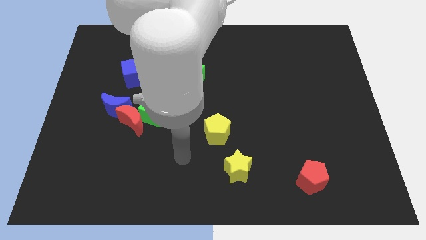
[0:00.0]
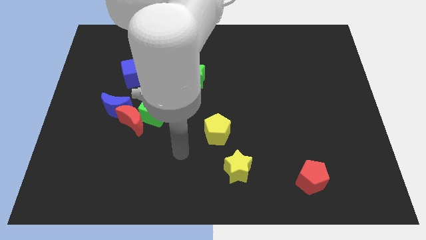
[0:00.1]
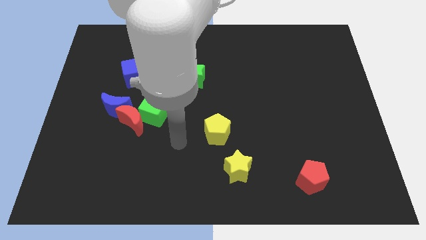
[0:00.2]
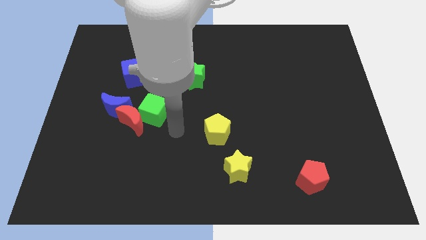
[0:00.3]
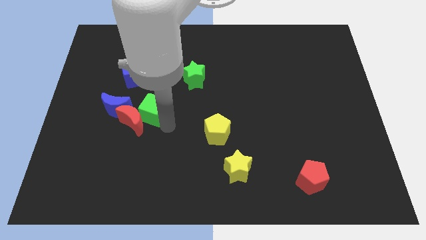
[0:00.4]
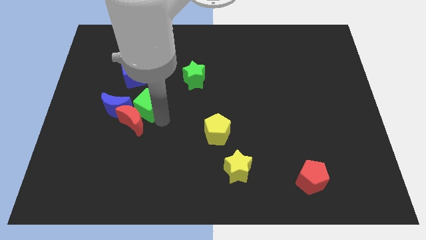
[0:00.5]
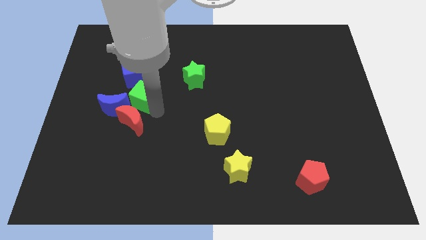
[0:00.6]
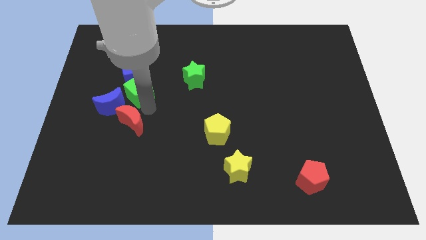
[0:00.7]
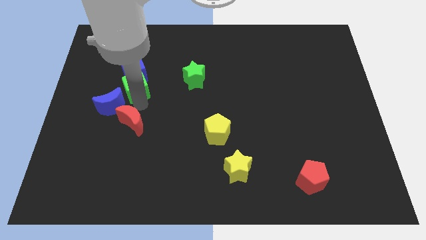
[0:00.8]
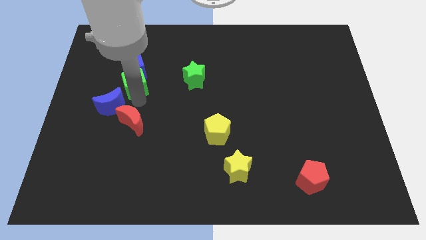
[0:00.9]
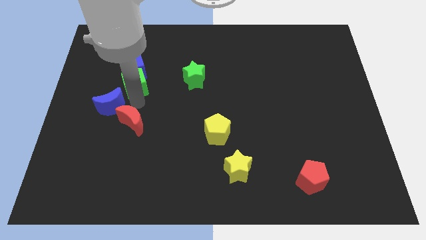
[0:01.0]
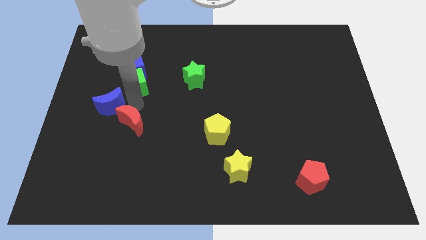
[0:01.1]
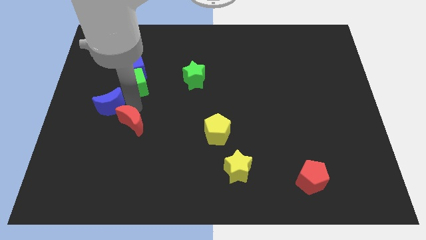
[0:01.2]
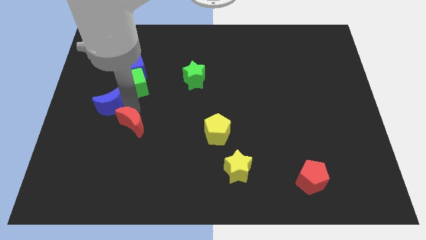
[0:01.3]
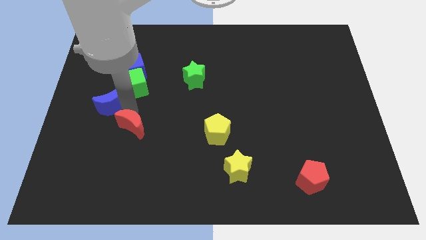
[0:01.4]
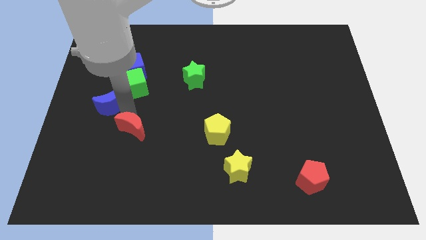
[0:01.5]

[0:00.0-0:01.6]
pull the red moon apart from the green cube and blue moon

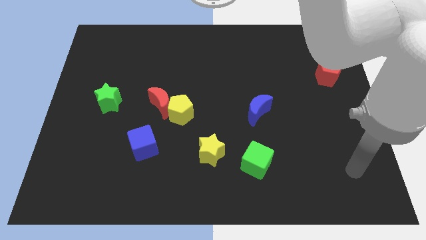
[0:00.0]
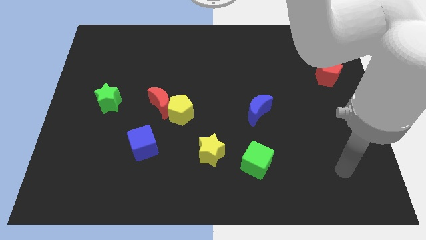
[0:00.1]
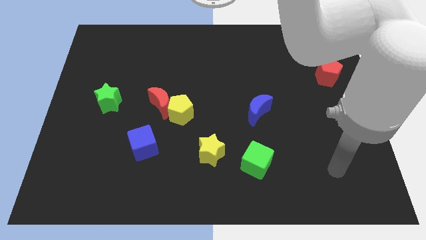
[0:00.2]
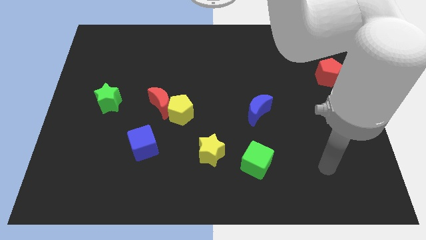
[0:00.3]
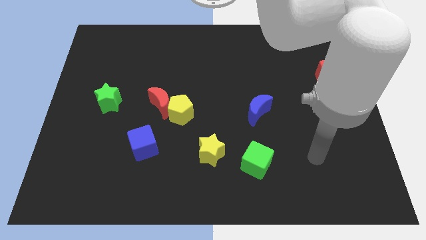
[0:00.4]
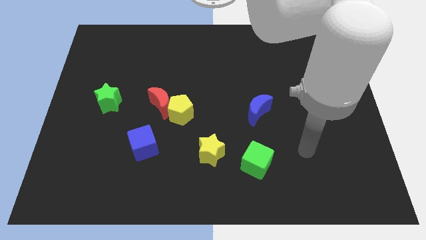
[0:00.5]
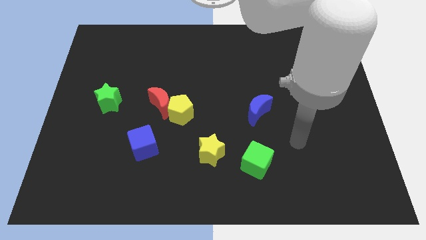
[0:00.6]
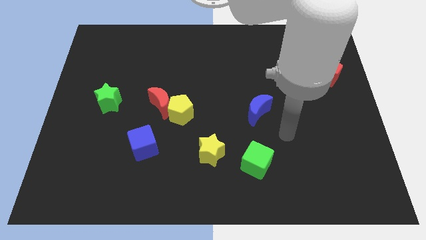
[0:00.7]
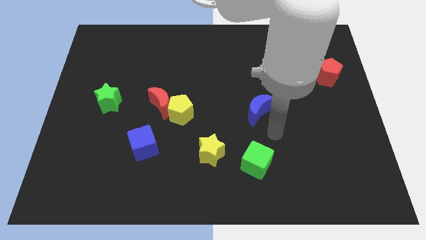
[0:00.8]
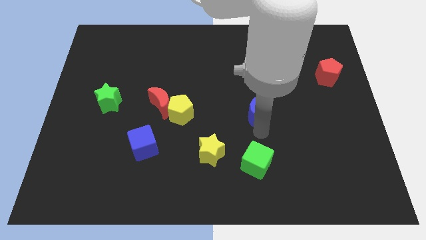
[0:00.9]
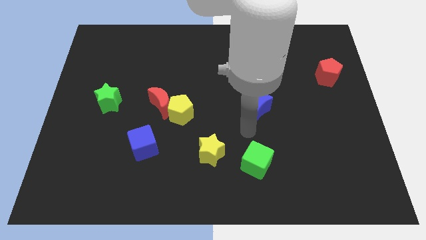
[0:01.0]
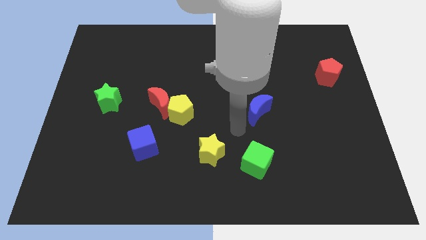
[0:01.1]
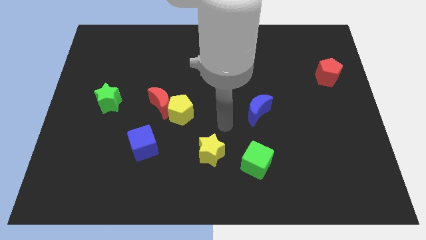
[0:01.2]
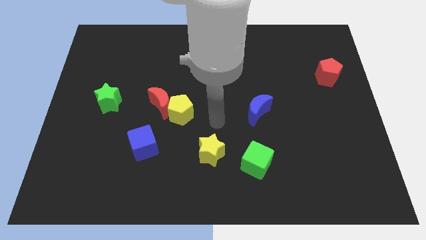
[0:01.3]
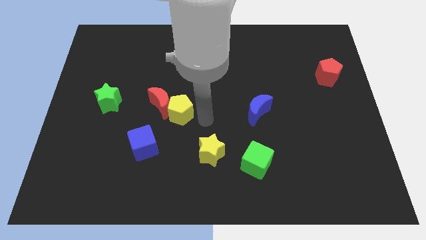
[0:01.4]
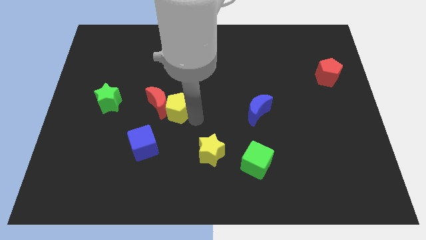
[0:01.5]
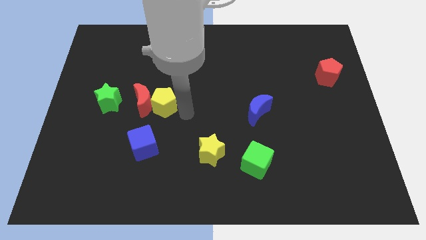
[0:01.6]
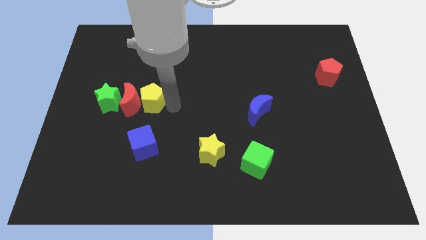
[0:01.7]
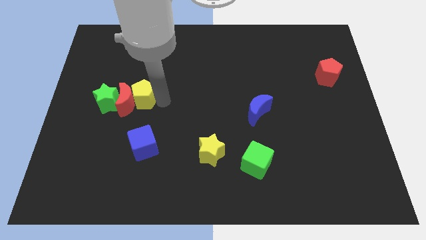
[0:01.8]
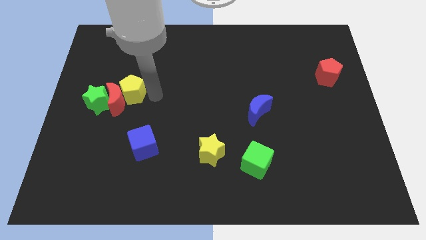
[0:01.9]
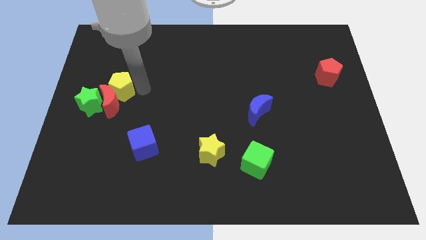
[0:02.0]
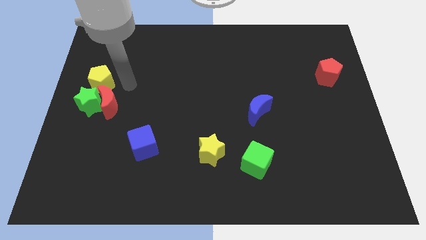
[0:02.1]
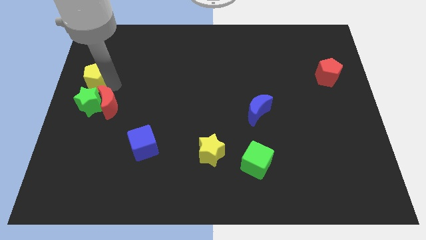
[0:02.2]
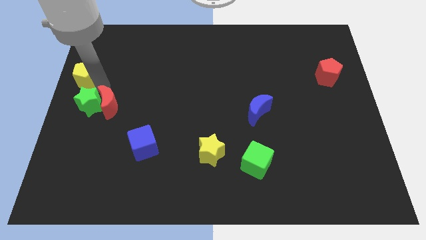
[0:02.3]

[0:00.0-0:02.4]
pull the red moon apart from the yellow pentagon

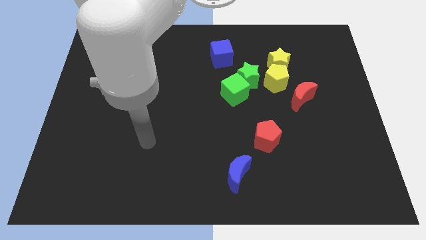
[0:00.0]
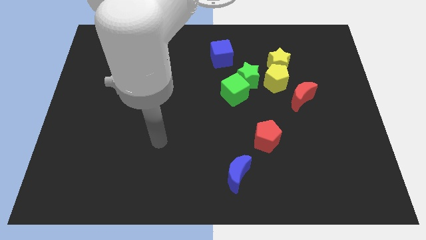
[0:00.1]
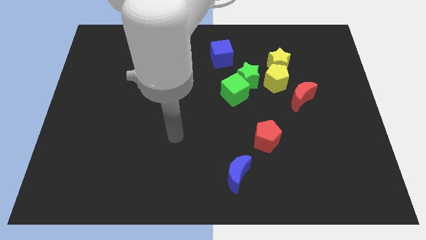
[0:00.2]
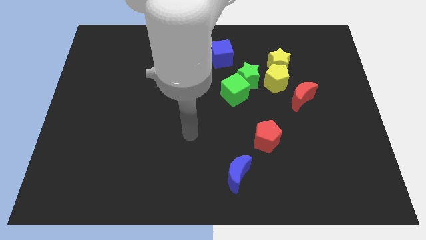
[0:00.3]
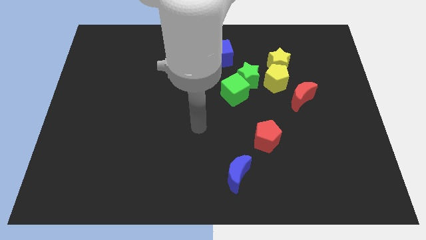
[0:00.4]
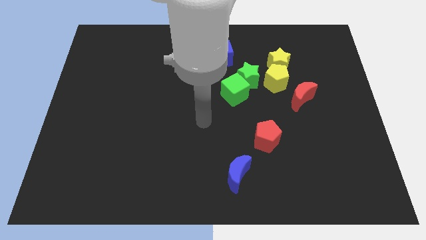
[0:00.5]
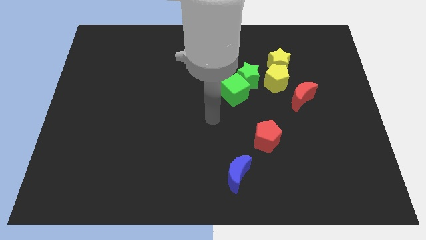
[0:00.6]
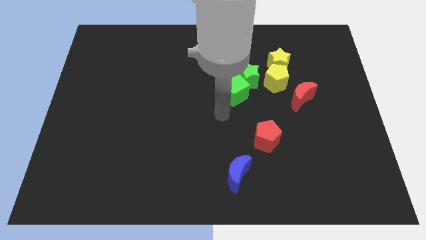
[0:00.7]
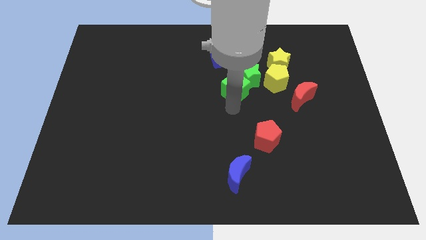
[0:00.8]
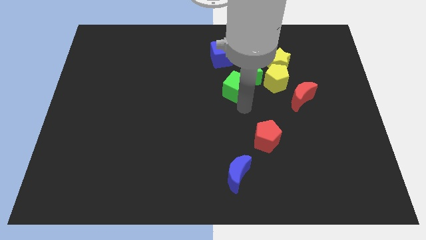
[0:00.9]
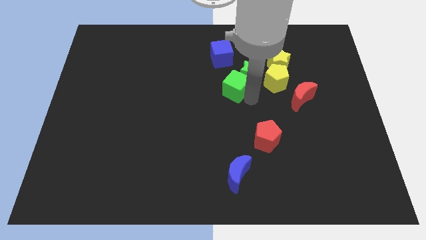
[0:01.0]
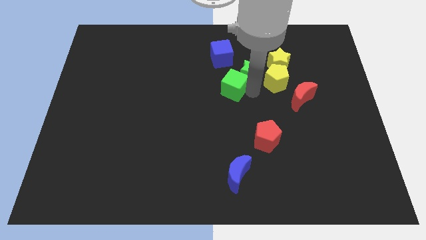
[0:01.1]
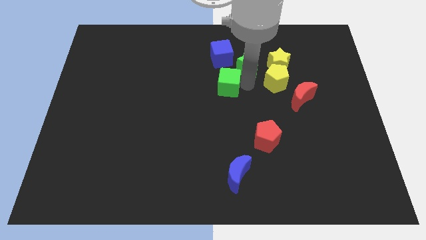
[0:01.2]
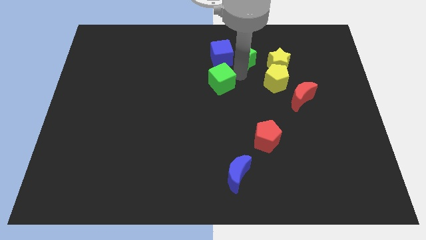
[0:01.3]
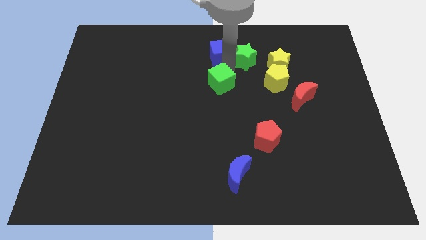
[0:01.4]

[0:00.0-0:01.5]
separate the green cube from the green star

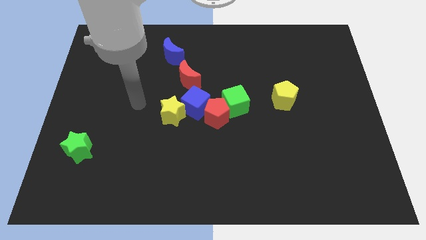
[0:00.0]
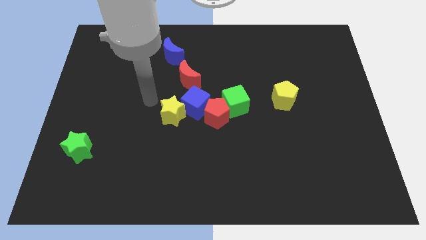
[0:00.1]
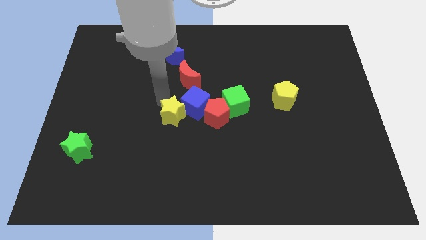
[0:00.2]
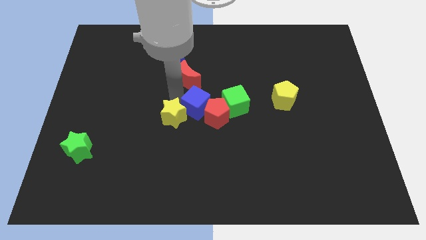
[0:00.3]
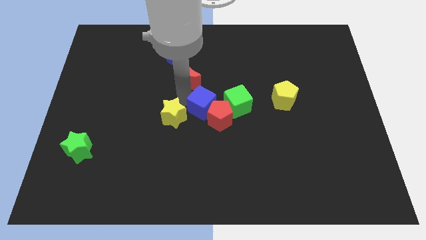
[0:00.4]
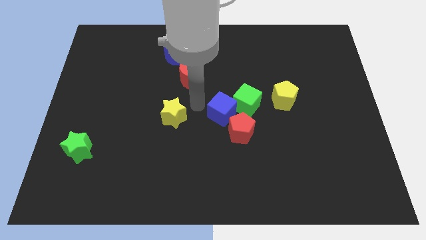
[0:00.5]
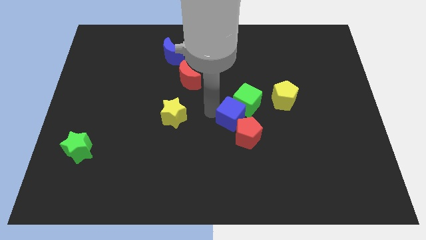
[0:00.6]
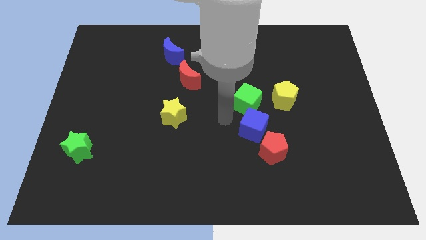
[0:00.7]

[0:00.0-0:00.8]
pull the red pentagon apart from the group

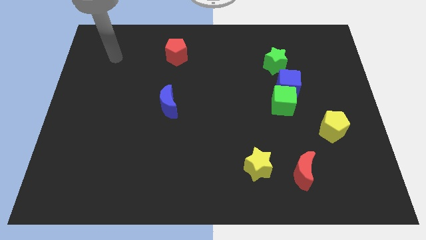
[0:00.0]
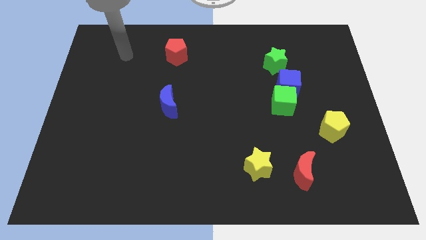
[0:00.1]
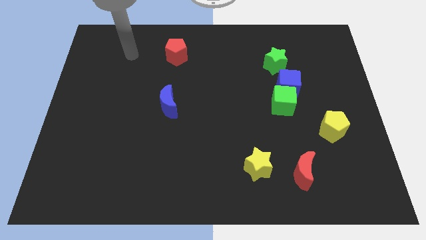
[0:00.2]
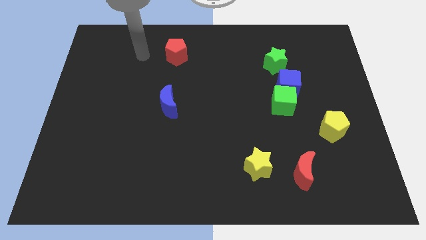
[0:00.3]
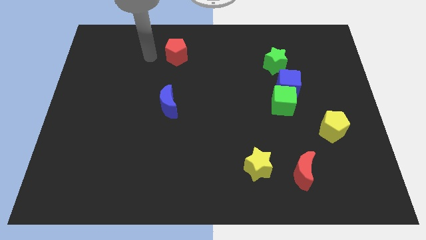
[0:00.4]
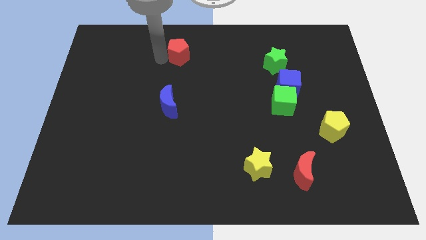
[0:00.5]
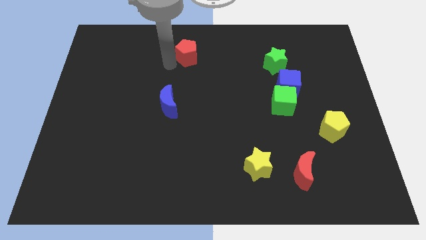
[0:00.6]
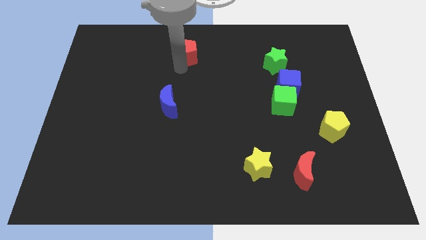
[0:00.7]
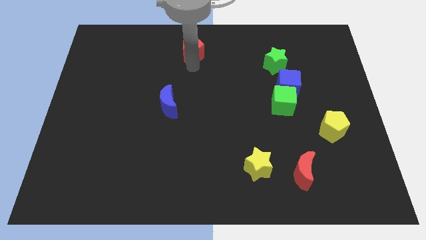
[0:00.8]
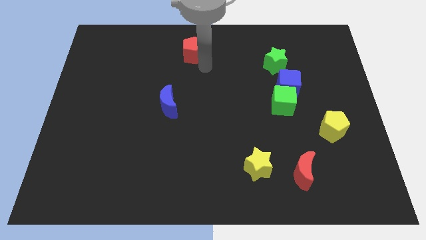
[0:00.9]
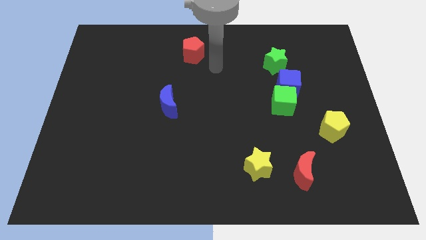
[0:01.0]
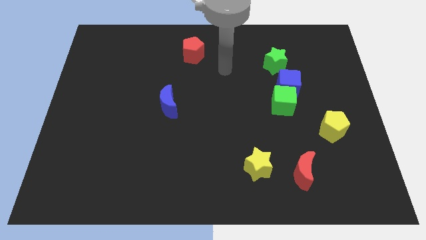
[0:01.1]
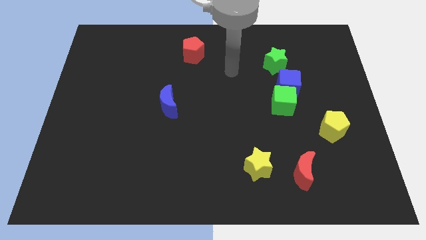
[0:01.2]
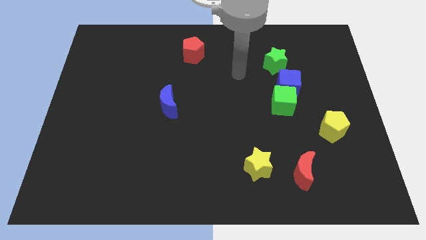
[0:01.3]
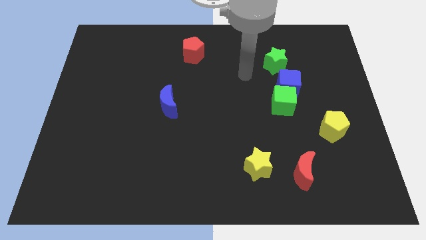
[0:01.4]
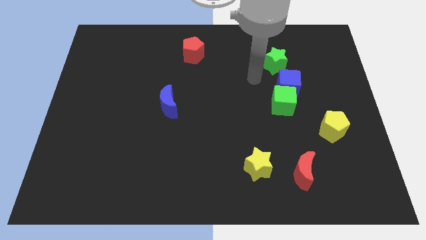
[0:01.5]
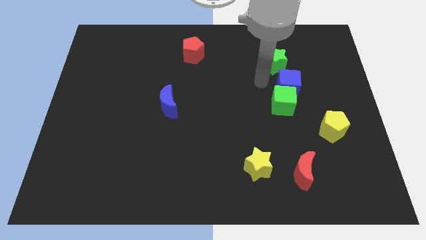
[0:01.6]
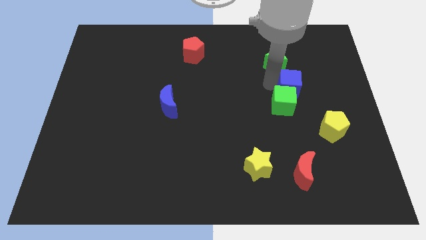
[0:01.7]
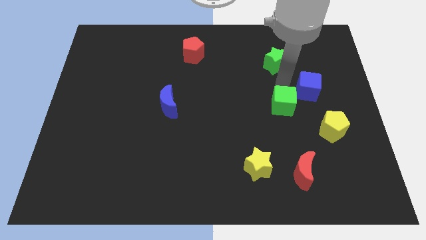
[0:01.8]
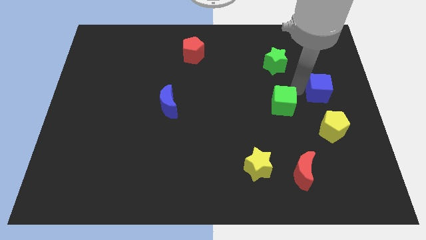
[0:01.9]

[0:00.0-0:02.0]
move the green cube away from the blue cube

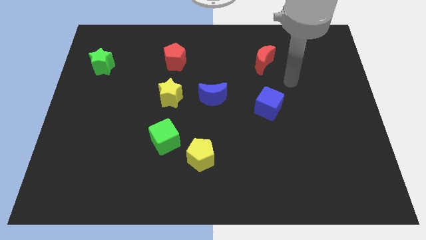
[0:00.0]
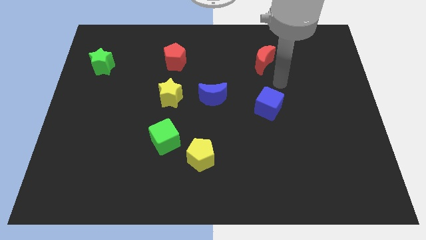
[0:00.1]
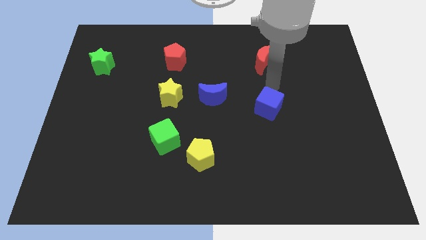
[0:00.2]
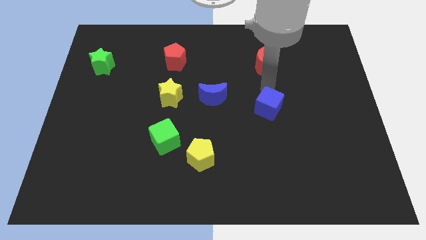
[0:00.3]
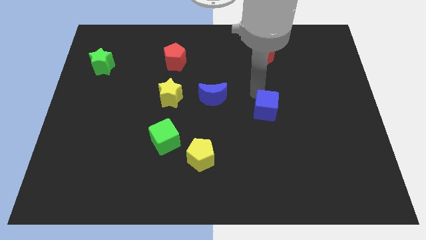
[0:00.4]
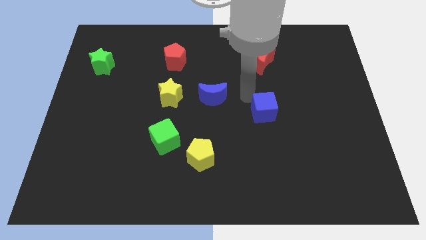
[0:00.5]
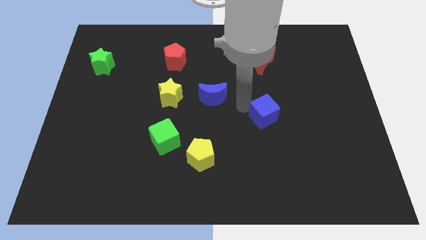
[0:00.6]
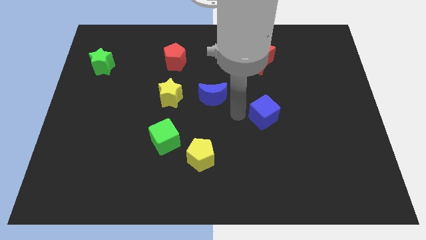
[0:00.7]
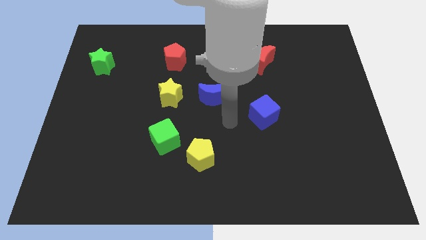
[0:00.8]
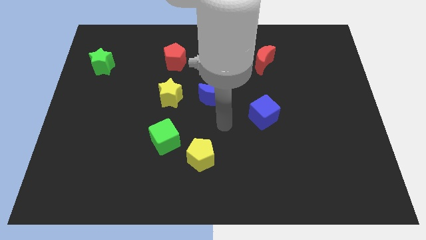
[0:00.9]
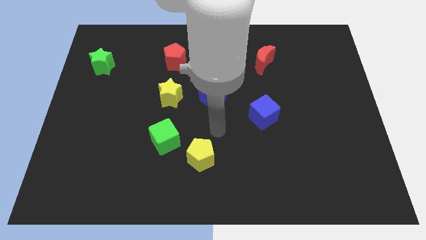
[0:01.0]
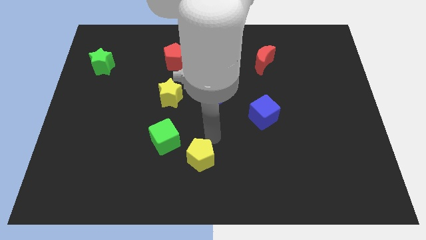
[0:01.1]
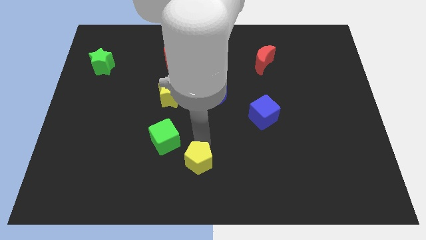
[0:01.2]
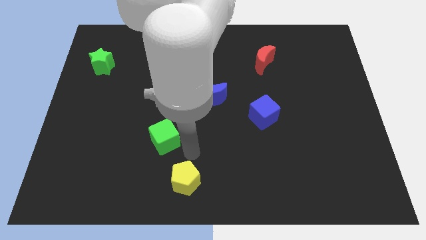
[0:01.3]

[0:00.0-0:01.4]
separate the green cube from the yellow pentagon
